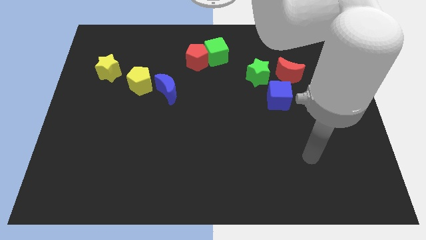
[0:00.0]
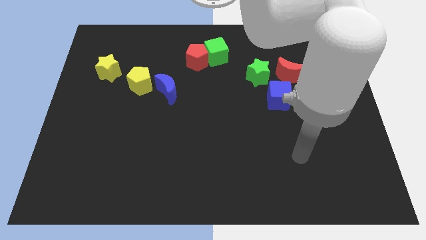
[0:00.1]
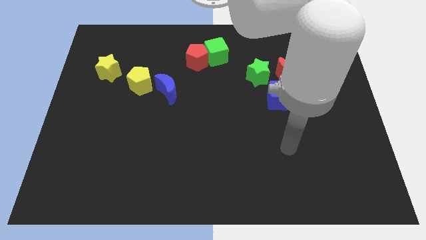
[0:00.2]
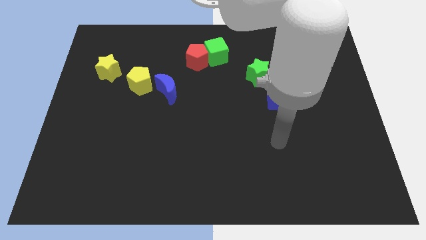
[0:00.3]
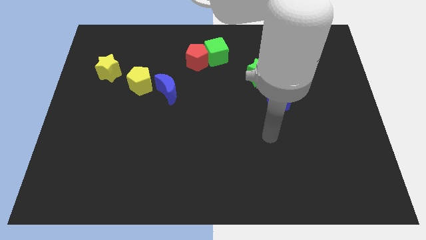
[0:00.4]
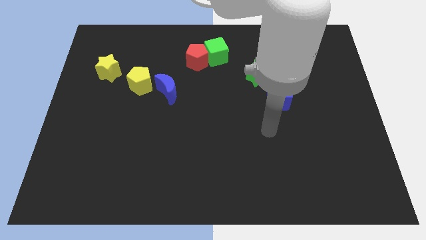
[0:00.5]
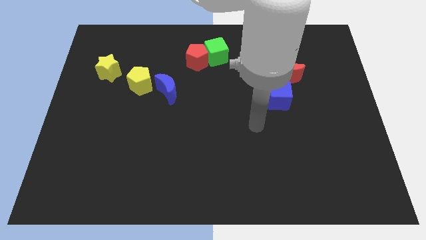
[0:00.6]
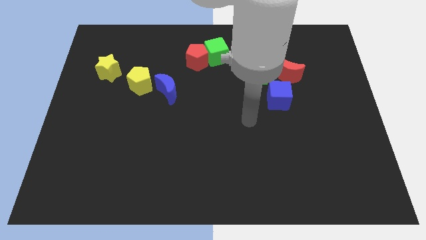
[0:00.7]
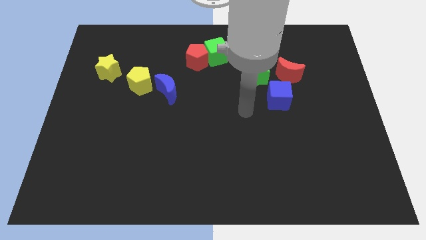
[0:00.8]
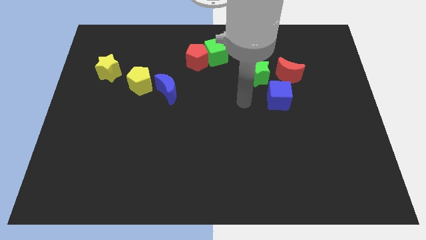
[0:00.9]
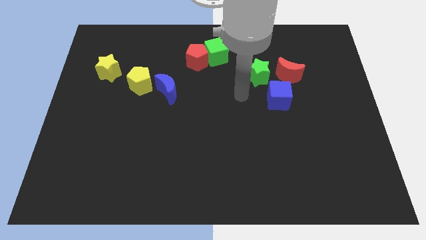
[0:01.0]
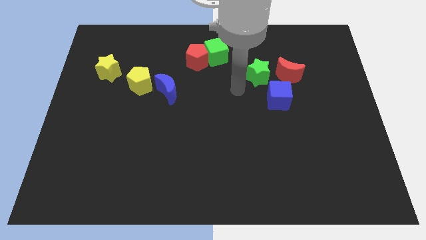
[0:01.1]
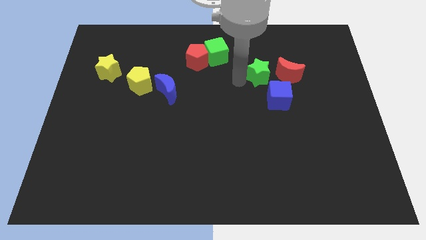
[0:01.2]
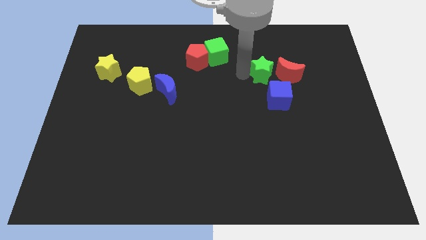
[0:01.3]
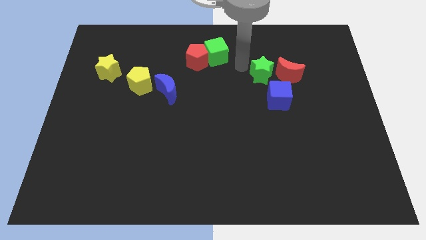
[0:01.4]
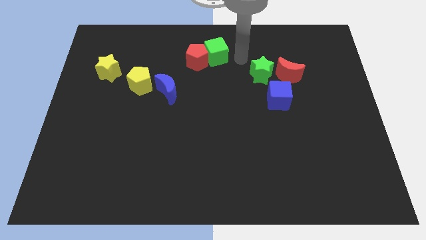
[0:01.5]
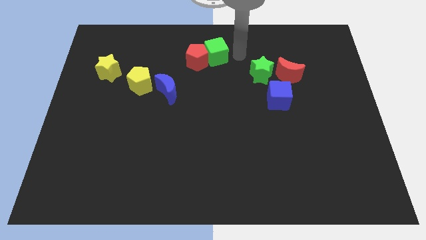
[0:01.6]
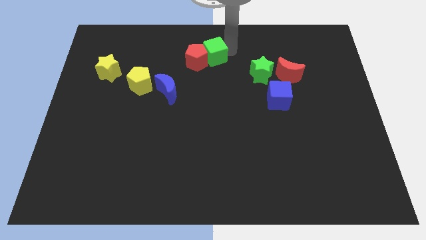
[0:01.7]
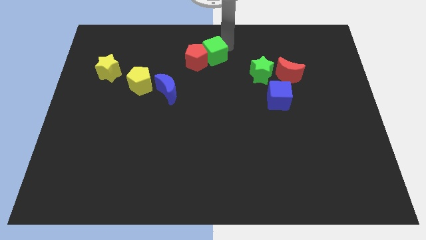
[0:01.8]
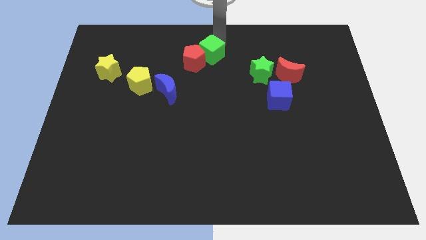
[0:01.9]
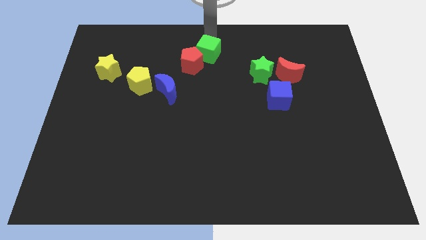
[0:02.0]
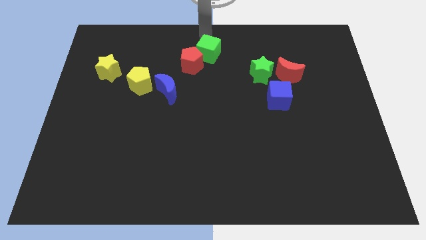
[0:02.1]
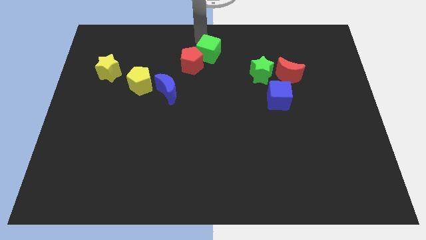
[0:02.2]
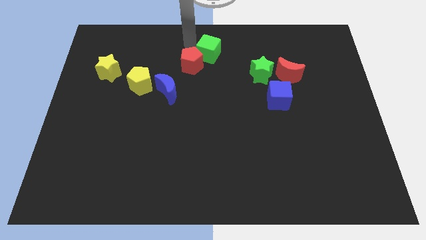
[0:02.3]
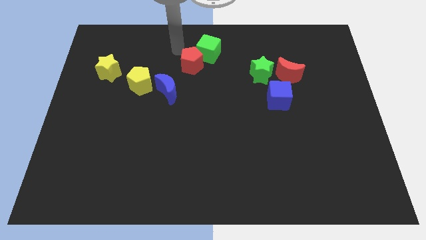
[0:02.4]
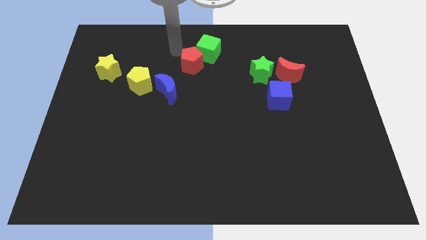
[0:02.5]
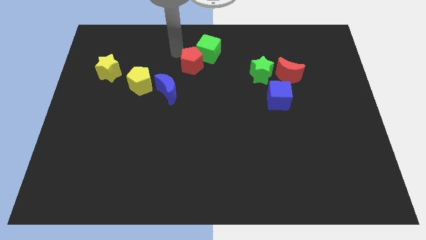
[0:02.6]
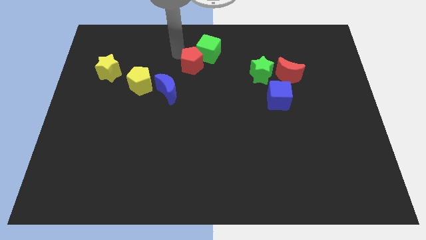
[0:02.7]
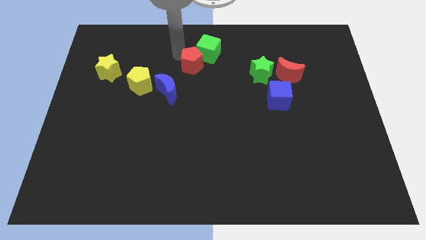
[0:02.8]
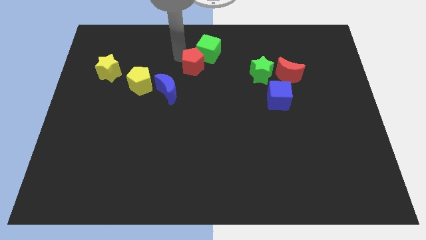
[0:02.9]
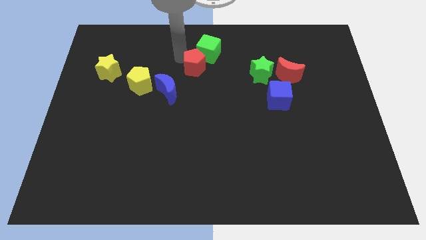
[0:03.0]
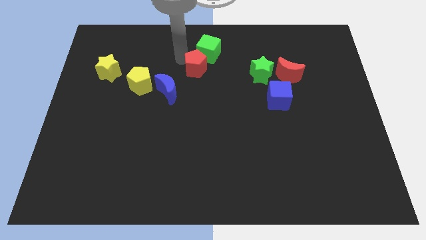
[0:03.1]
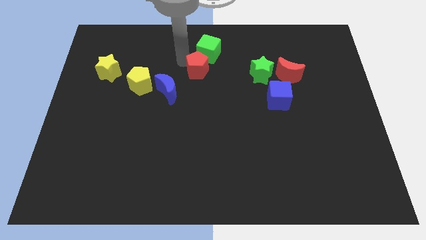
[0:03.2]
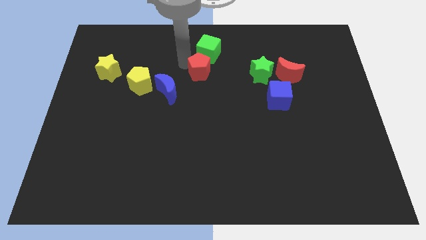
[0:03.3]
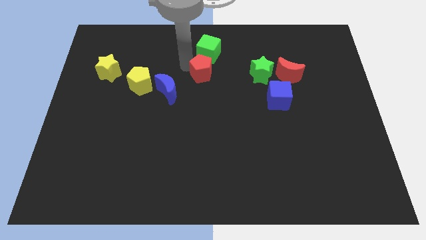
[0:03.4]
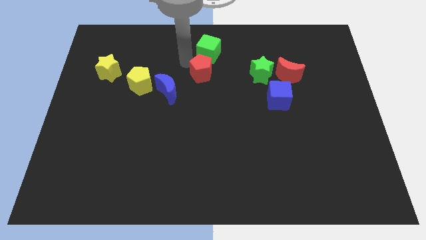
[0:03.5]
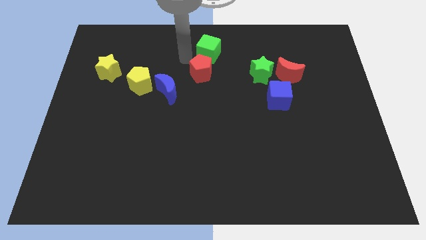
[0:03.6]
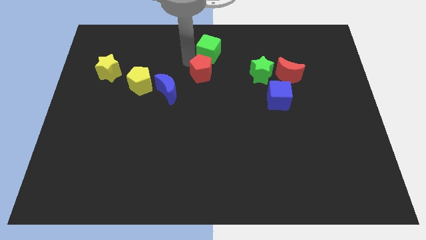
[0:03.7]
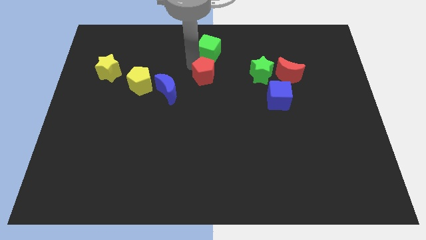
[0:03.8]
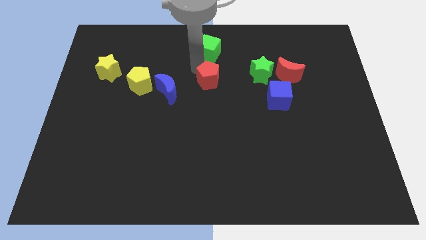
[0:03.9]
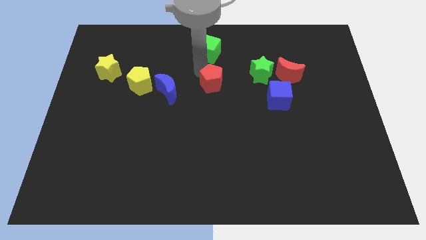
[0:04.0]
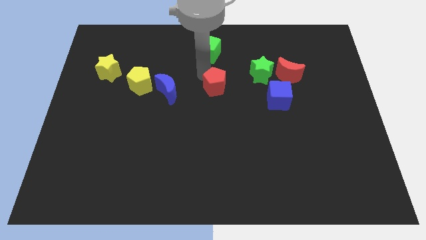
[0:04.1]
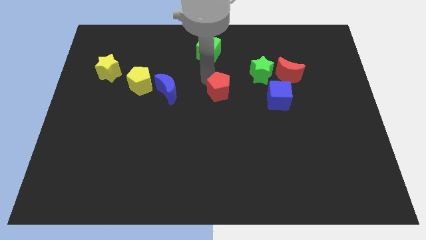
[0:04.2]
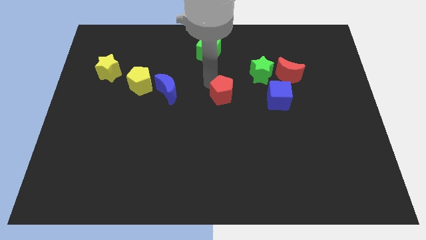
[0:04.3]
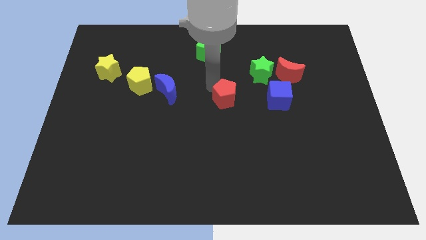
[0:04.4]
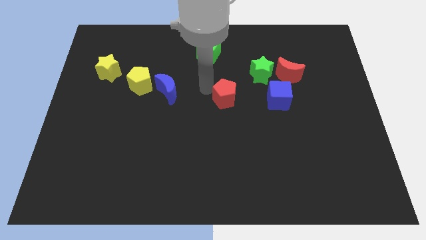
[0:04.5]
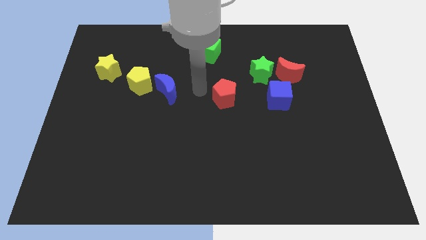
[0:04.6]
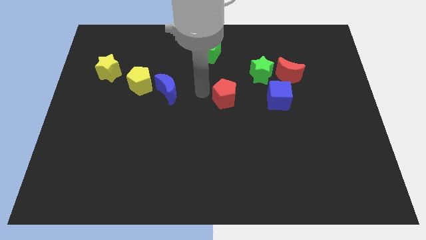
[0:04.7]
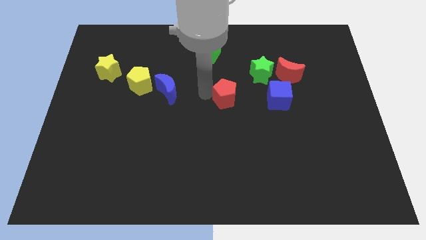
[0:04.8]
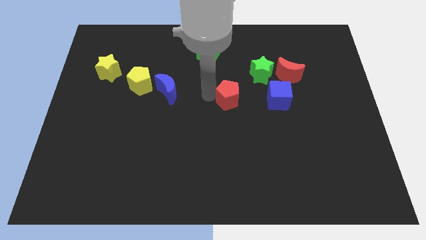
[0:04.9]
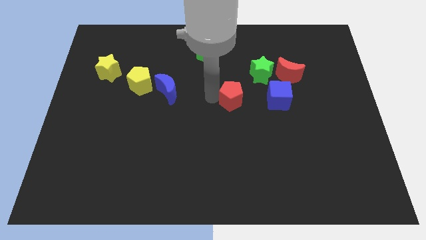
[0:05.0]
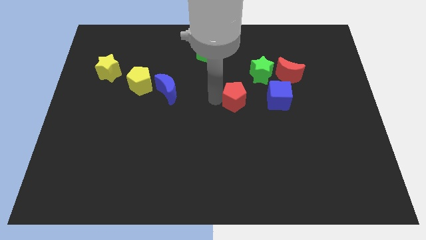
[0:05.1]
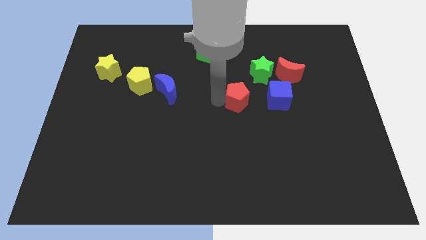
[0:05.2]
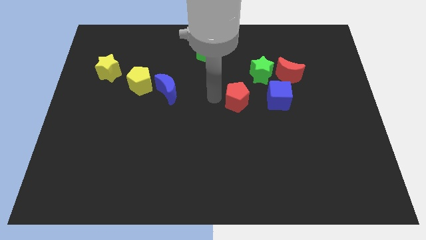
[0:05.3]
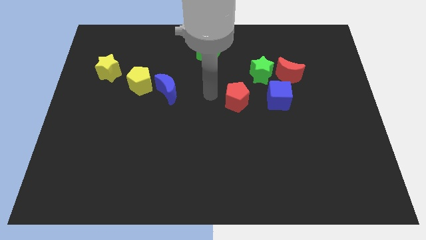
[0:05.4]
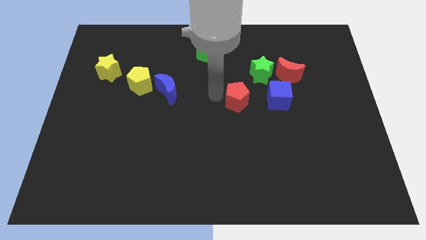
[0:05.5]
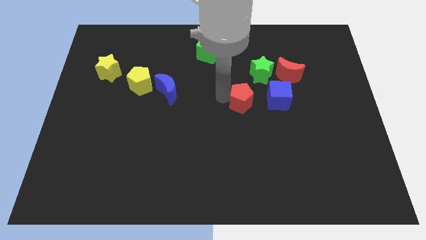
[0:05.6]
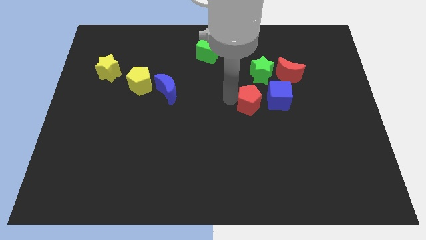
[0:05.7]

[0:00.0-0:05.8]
push the red pentagon to the bottom side of the green star

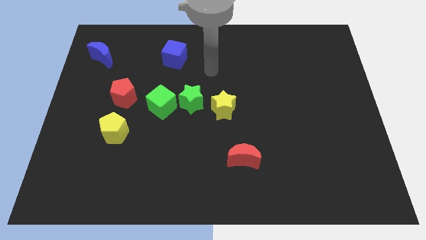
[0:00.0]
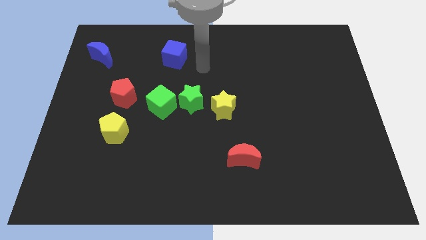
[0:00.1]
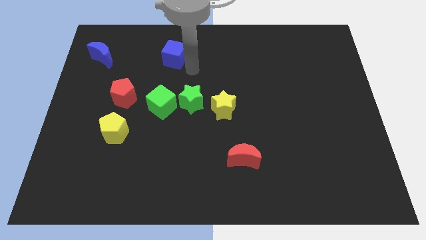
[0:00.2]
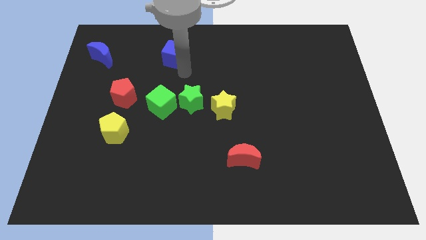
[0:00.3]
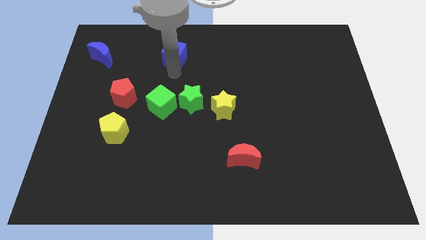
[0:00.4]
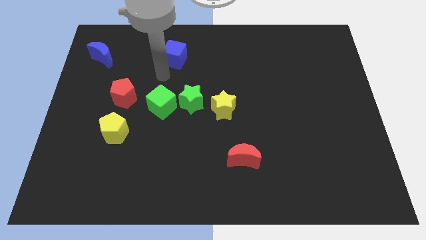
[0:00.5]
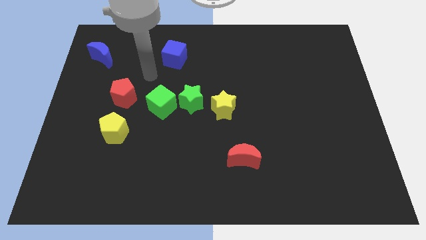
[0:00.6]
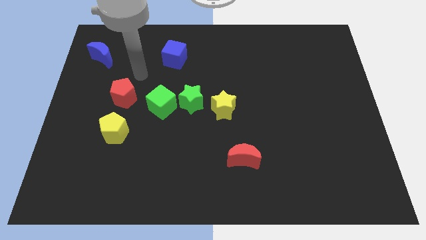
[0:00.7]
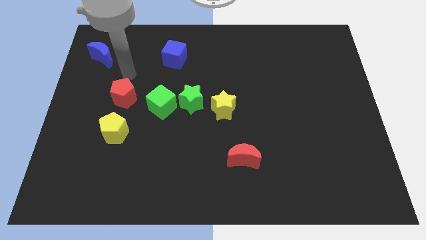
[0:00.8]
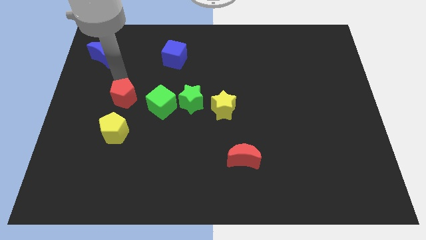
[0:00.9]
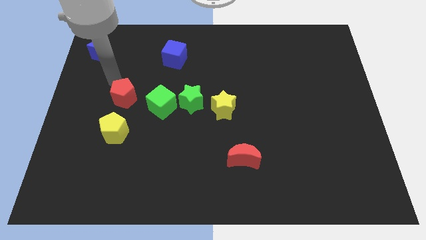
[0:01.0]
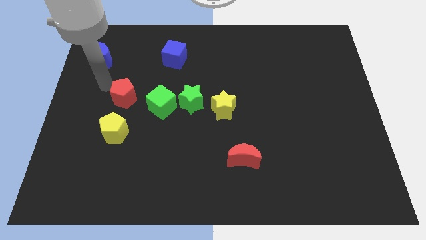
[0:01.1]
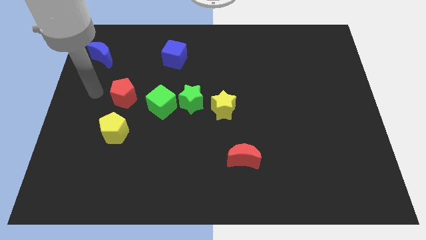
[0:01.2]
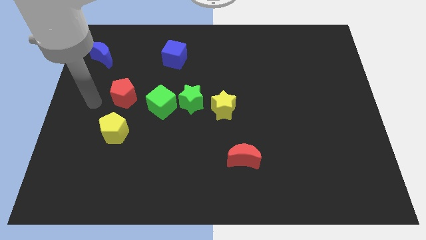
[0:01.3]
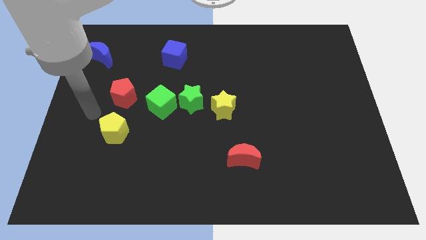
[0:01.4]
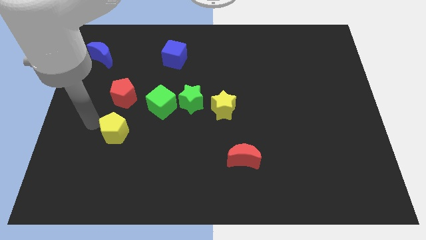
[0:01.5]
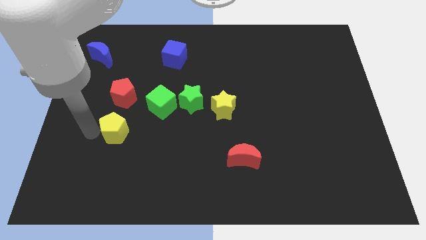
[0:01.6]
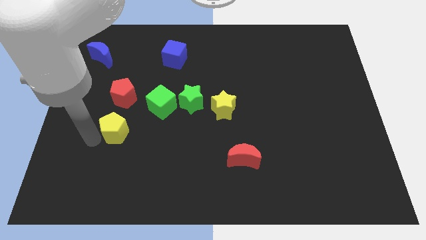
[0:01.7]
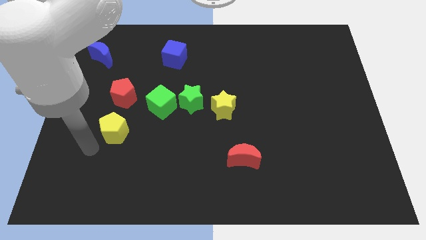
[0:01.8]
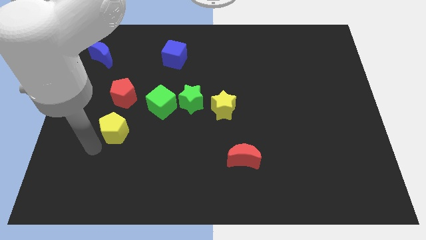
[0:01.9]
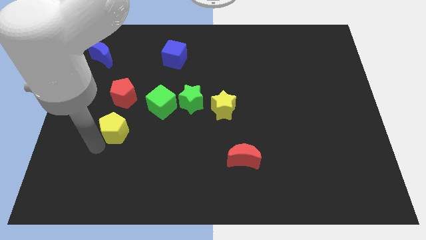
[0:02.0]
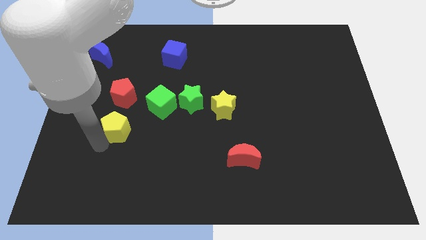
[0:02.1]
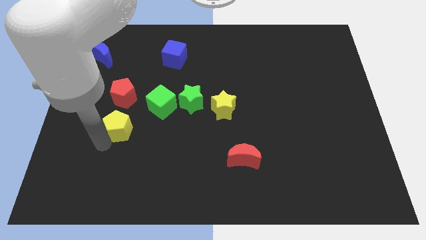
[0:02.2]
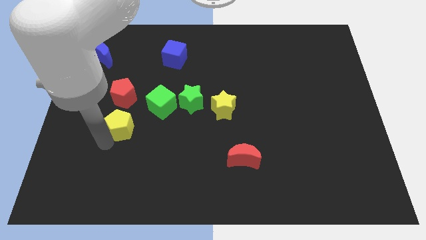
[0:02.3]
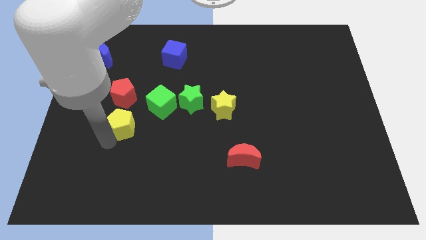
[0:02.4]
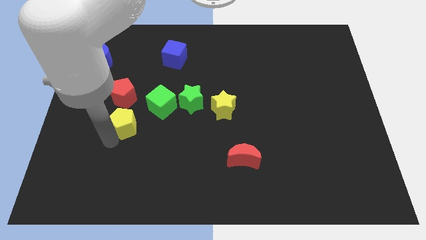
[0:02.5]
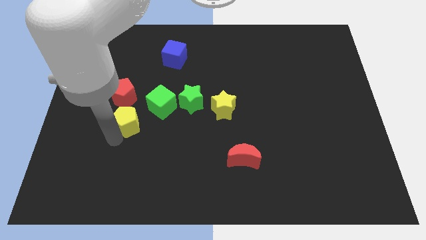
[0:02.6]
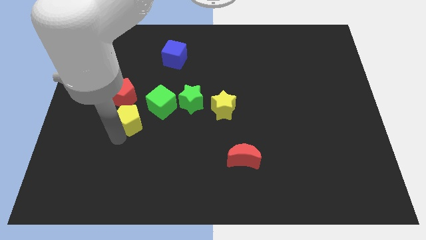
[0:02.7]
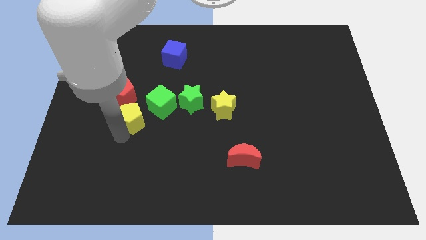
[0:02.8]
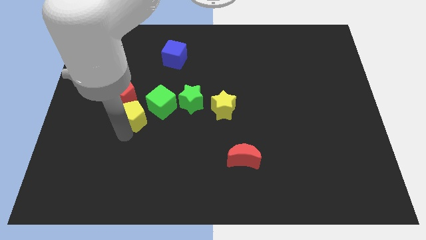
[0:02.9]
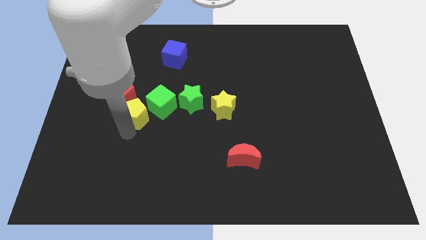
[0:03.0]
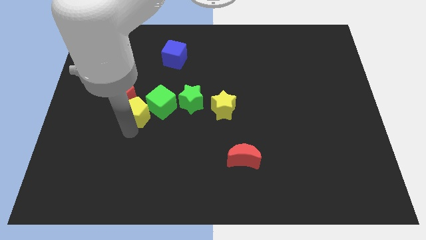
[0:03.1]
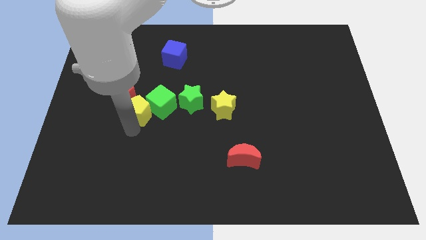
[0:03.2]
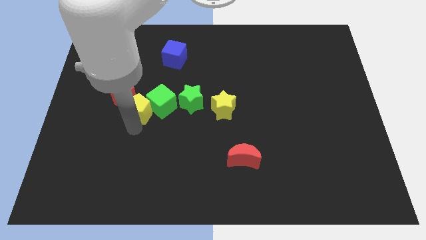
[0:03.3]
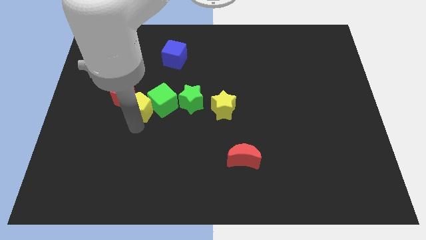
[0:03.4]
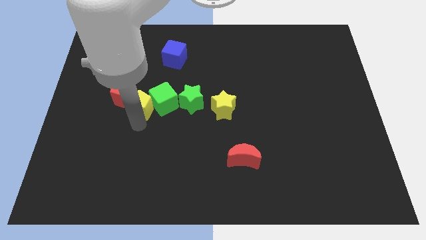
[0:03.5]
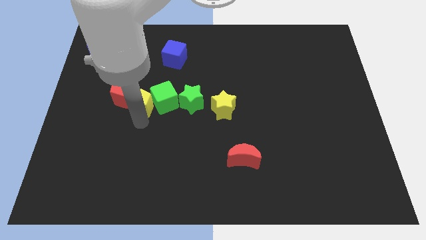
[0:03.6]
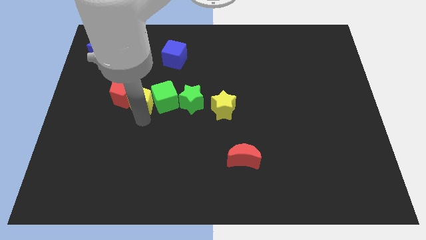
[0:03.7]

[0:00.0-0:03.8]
push the yellow pentagon to the top left side of the green cube
